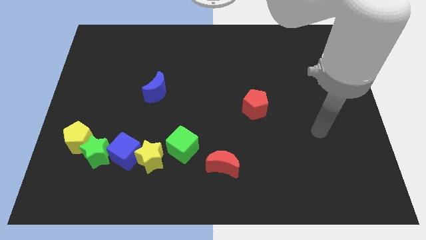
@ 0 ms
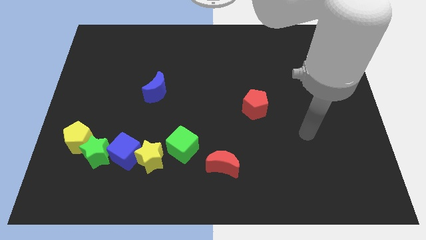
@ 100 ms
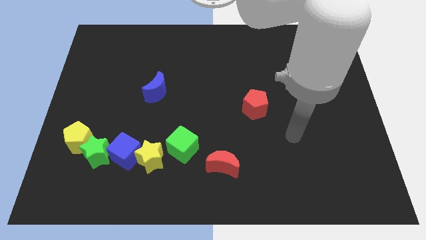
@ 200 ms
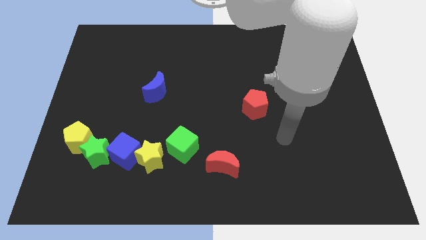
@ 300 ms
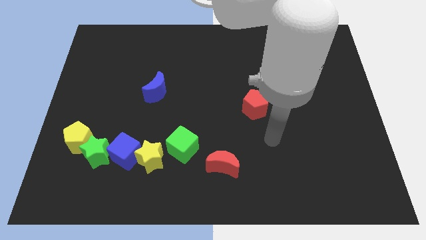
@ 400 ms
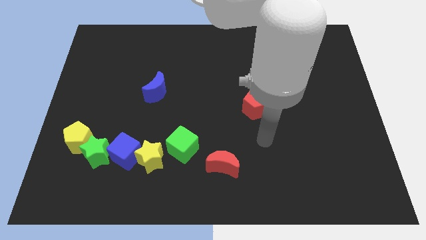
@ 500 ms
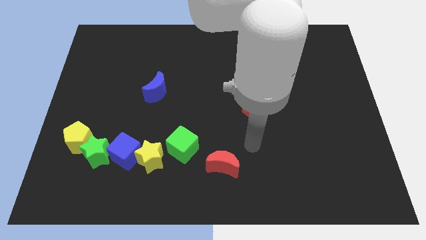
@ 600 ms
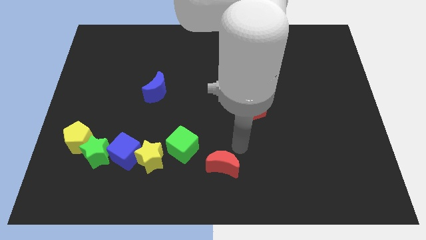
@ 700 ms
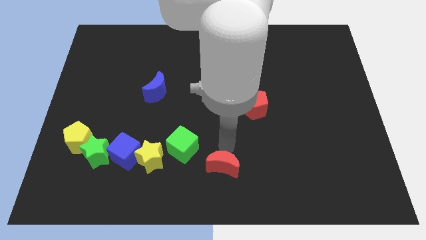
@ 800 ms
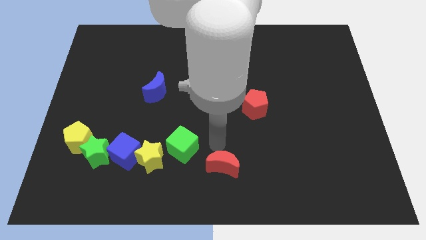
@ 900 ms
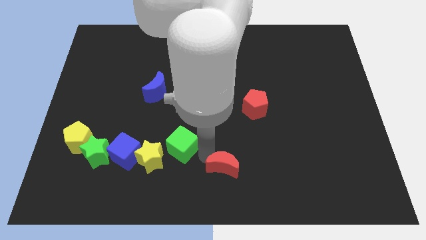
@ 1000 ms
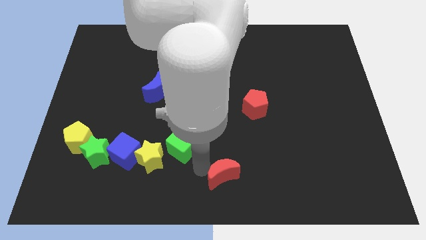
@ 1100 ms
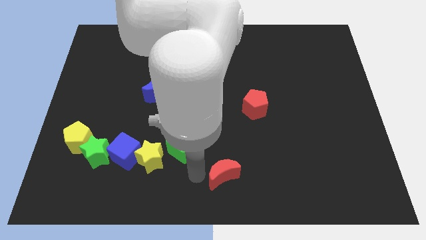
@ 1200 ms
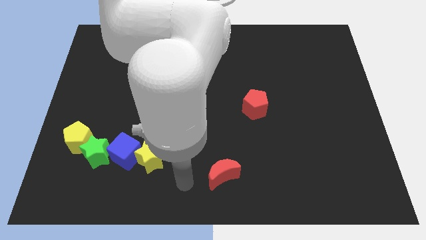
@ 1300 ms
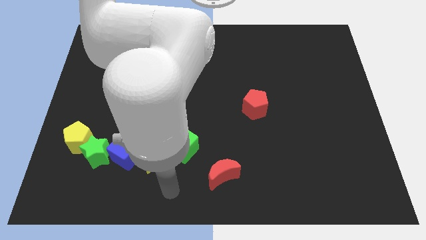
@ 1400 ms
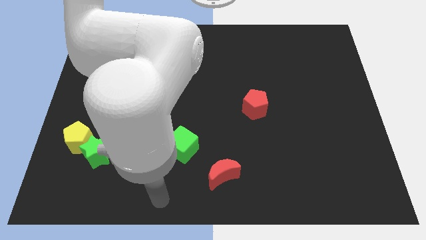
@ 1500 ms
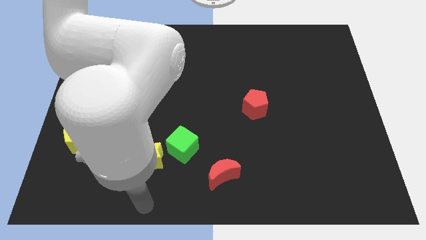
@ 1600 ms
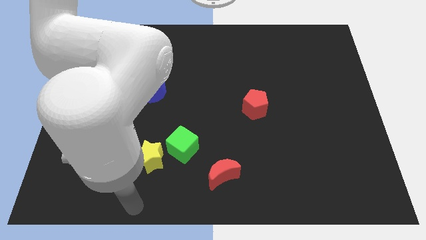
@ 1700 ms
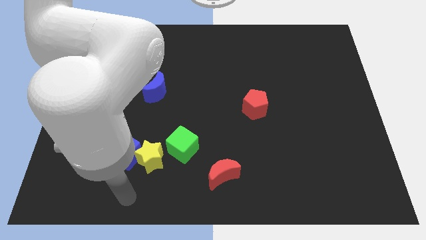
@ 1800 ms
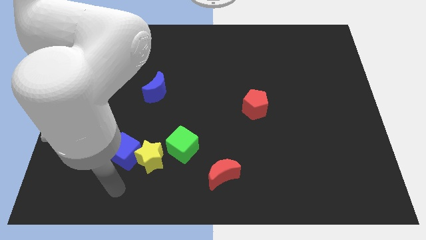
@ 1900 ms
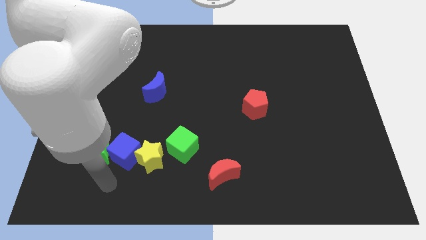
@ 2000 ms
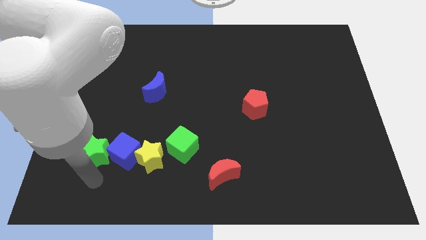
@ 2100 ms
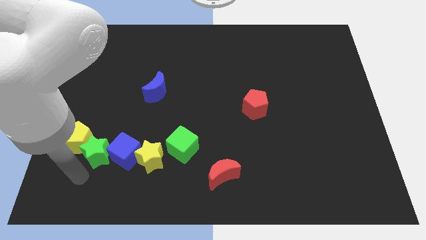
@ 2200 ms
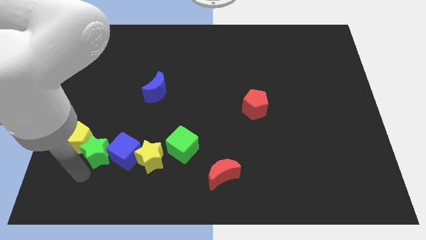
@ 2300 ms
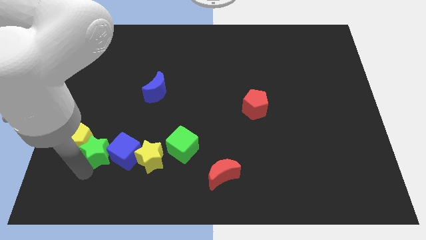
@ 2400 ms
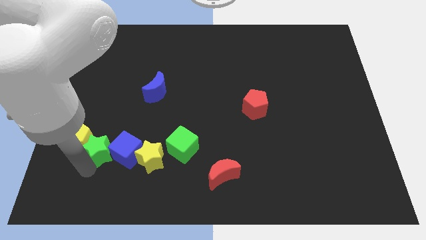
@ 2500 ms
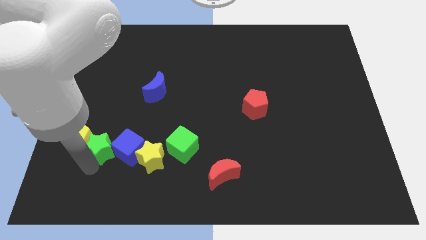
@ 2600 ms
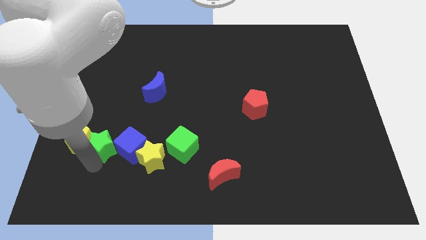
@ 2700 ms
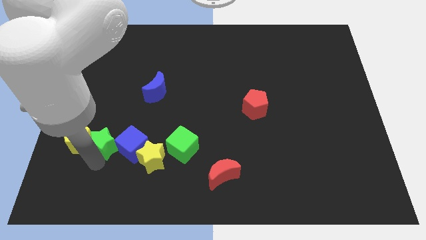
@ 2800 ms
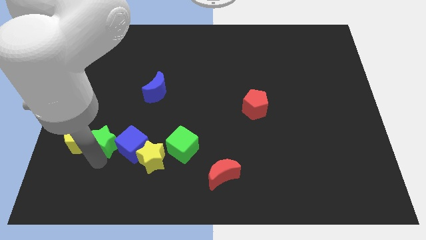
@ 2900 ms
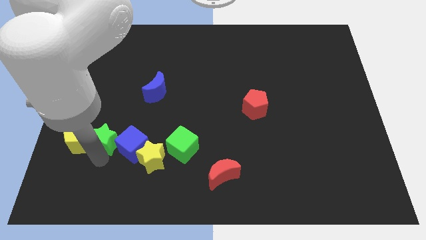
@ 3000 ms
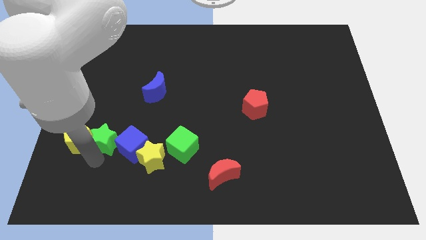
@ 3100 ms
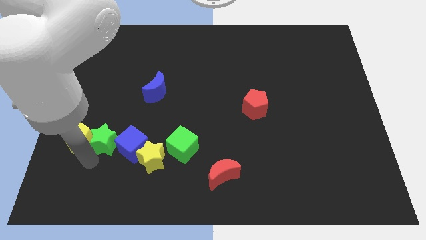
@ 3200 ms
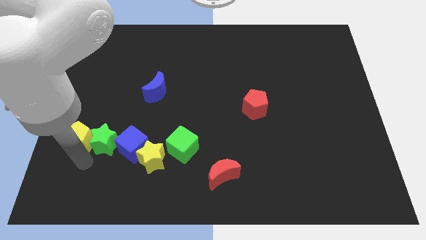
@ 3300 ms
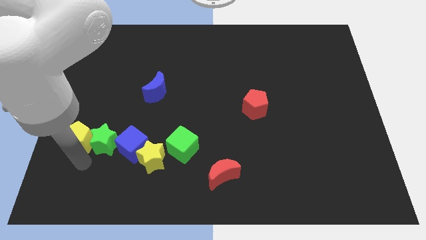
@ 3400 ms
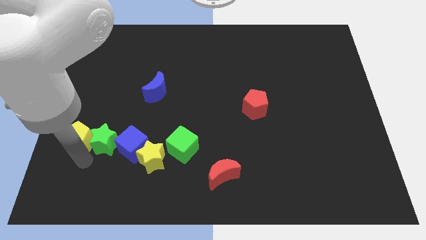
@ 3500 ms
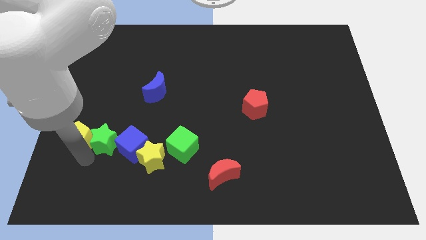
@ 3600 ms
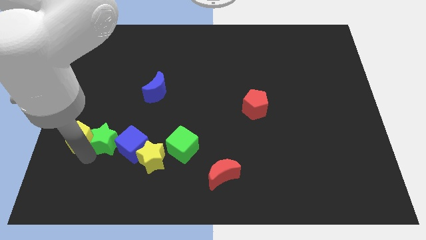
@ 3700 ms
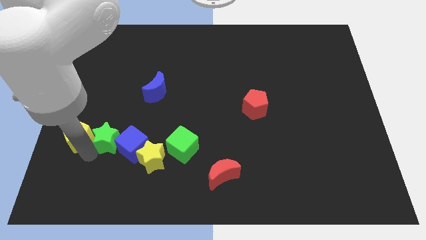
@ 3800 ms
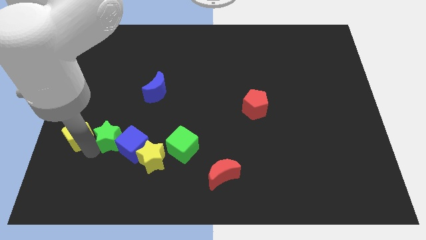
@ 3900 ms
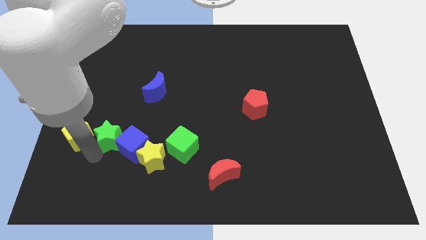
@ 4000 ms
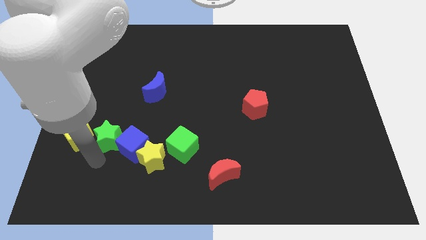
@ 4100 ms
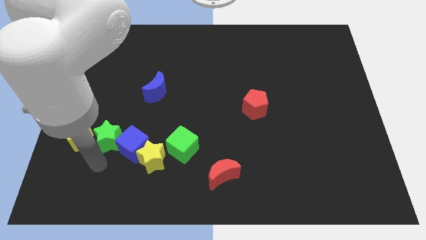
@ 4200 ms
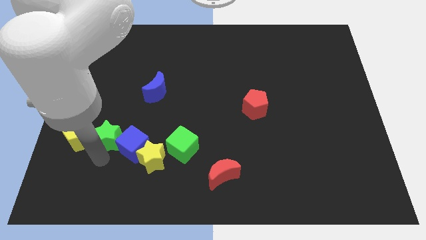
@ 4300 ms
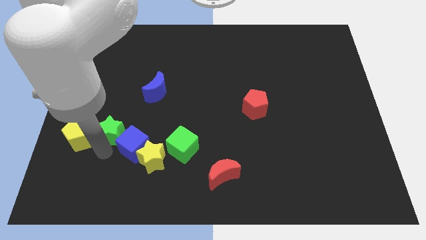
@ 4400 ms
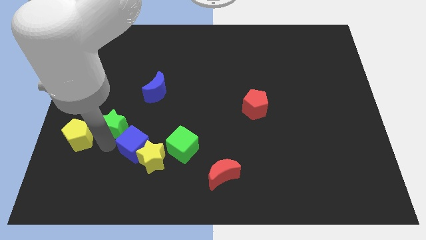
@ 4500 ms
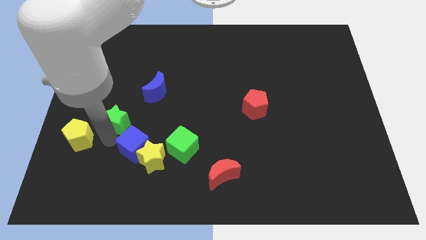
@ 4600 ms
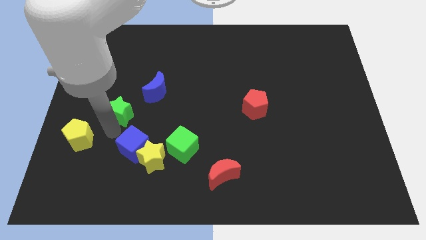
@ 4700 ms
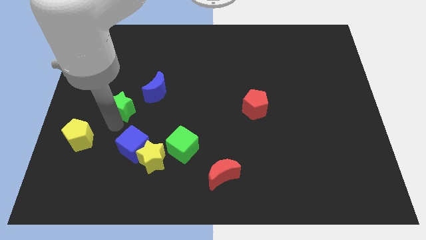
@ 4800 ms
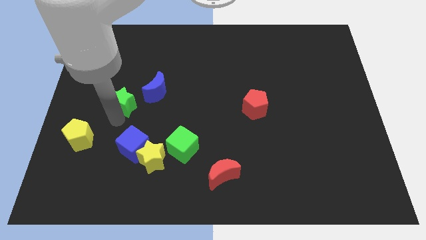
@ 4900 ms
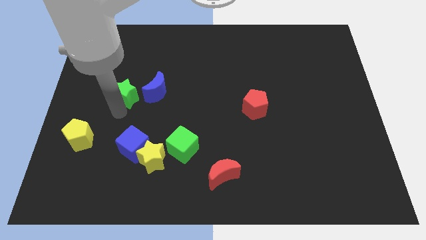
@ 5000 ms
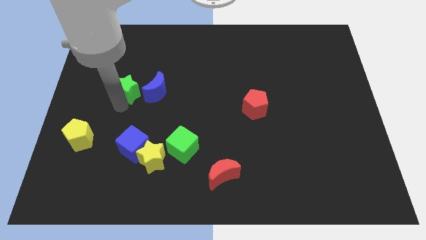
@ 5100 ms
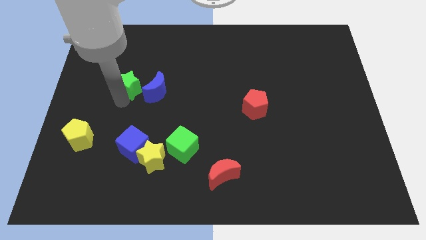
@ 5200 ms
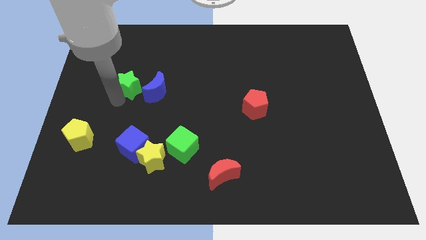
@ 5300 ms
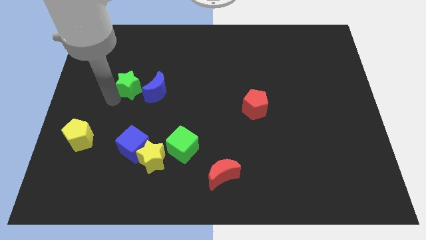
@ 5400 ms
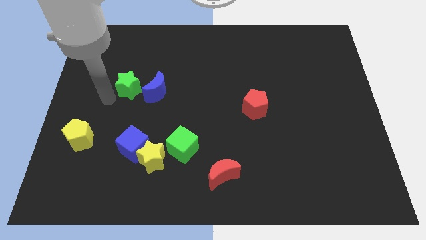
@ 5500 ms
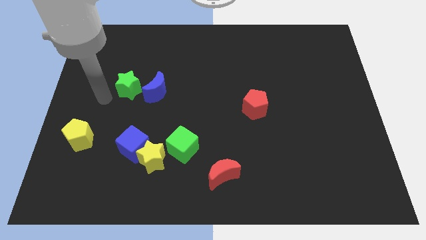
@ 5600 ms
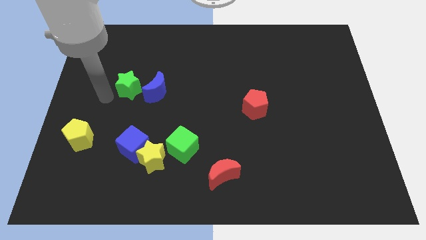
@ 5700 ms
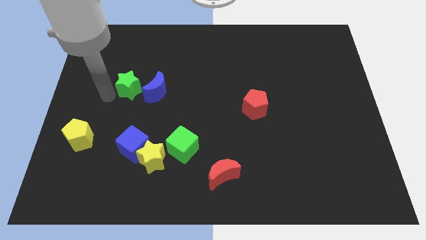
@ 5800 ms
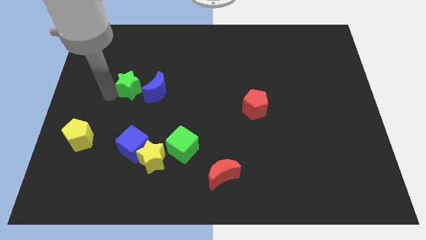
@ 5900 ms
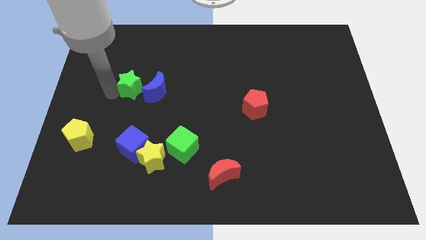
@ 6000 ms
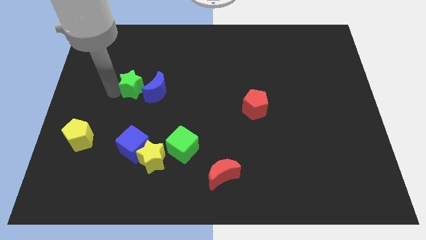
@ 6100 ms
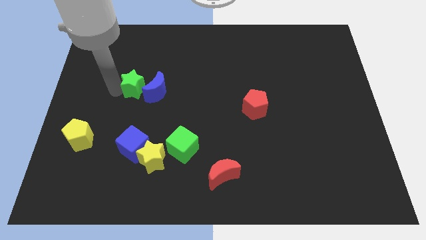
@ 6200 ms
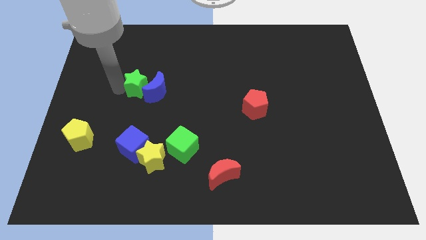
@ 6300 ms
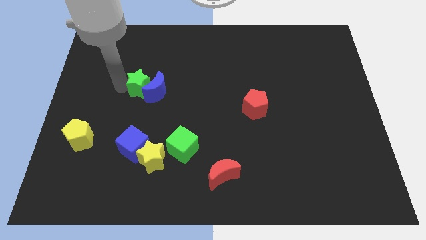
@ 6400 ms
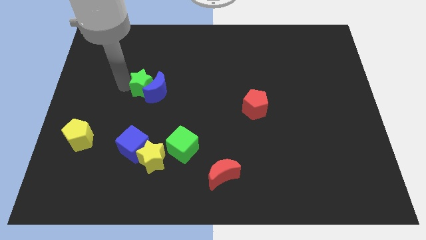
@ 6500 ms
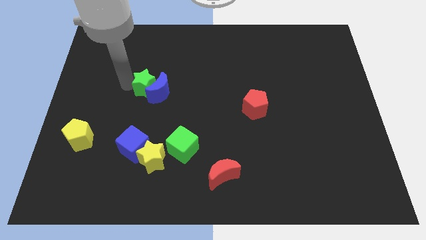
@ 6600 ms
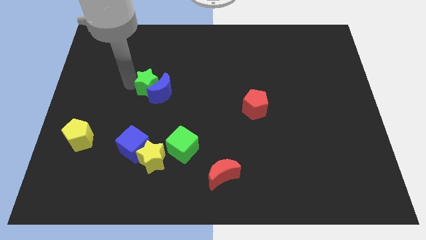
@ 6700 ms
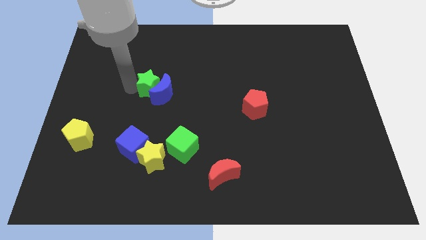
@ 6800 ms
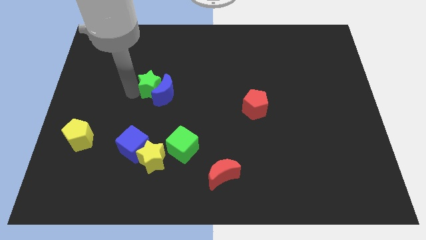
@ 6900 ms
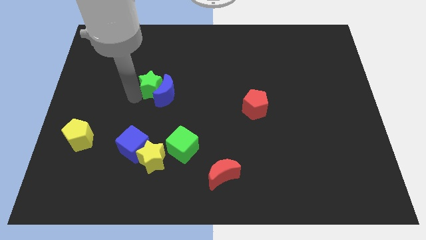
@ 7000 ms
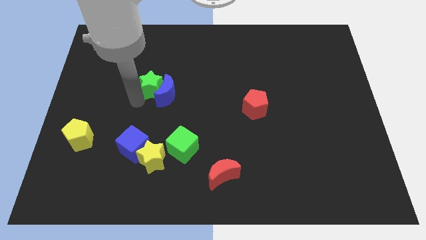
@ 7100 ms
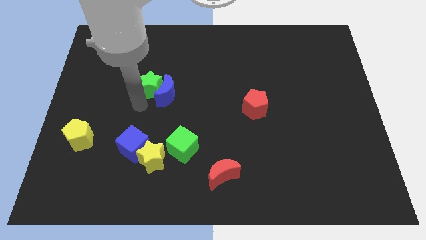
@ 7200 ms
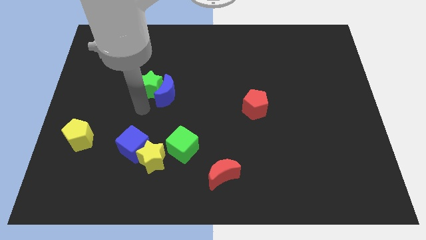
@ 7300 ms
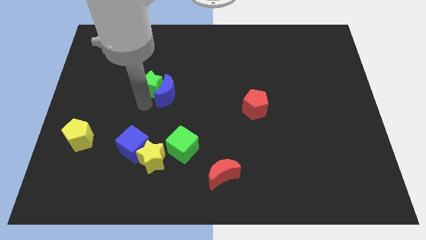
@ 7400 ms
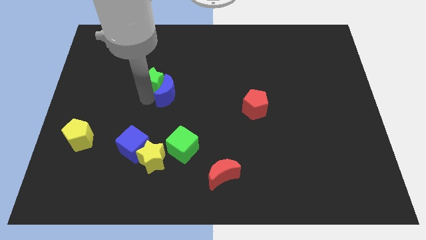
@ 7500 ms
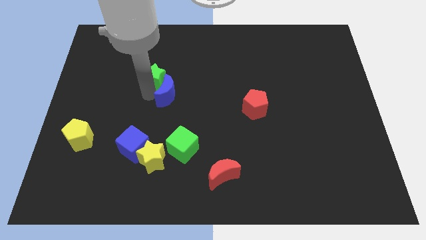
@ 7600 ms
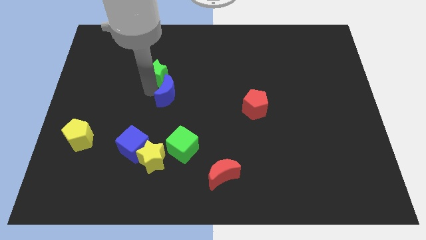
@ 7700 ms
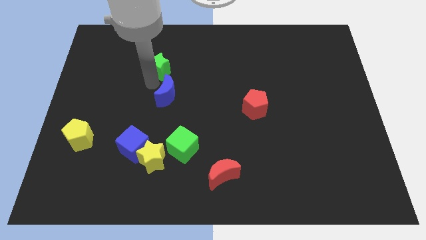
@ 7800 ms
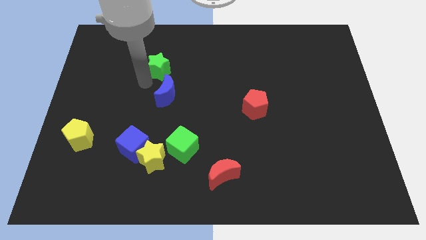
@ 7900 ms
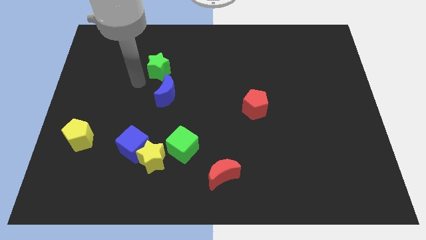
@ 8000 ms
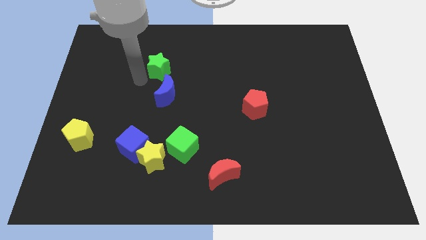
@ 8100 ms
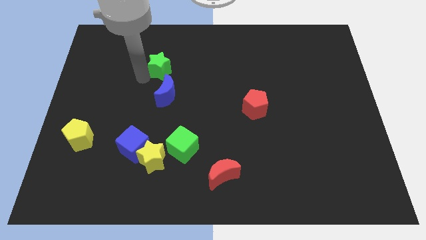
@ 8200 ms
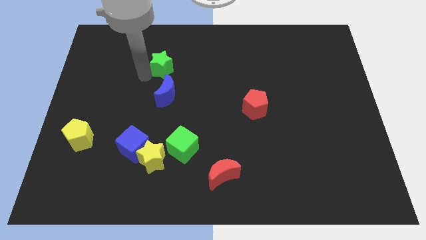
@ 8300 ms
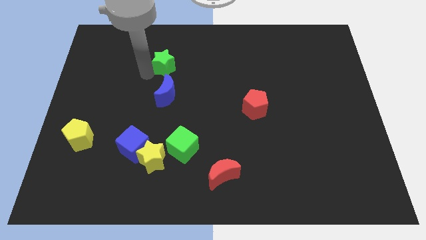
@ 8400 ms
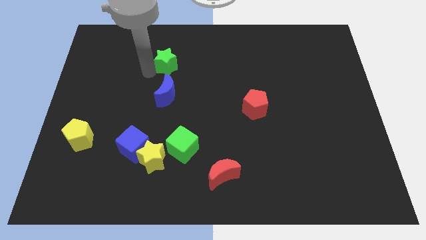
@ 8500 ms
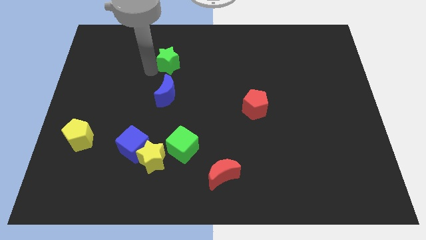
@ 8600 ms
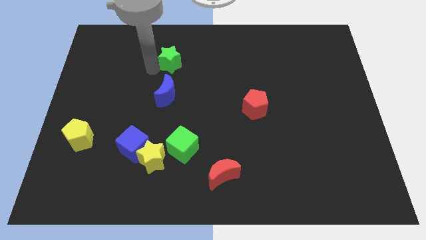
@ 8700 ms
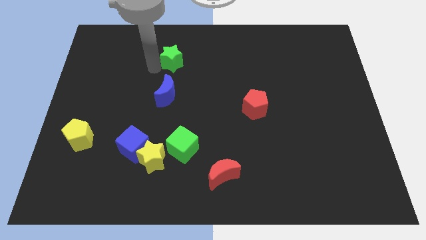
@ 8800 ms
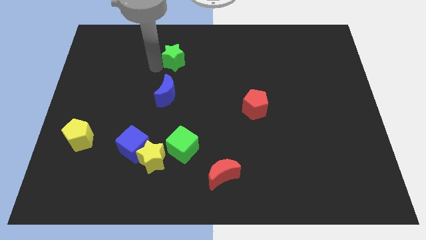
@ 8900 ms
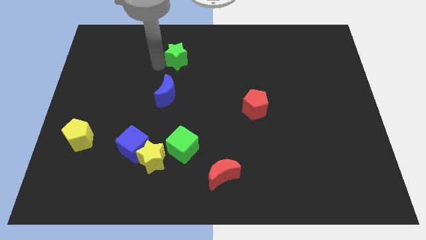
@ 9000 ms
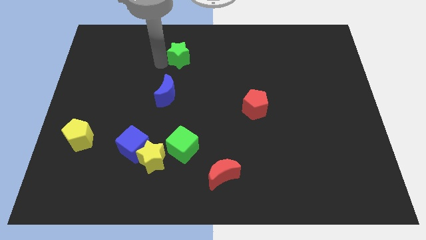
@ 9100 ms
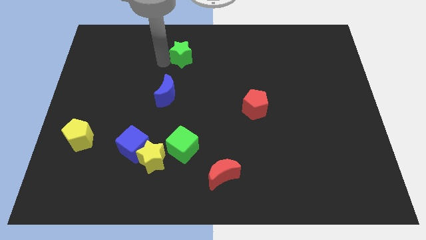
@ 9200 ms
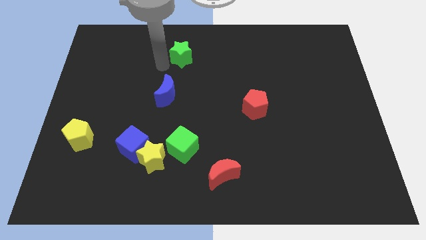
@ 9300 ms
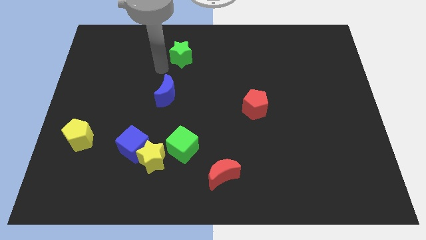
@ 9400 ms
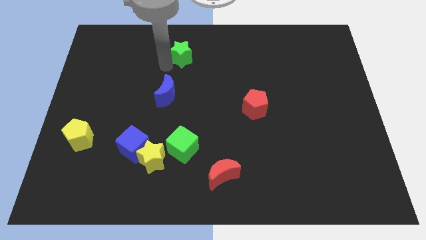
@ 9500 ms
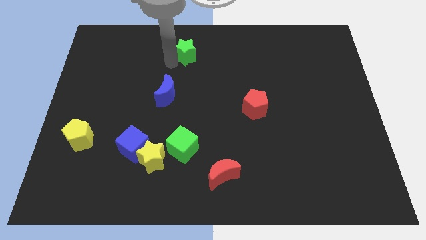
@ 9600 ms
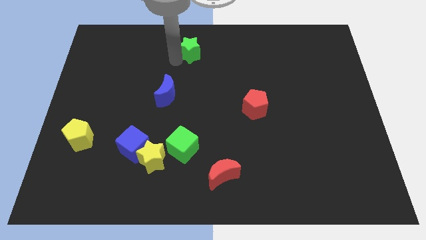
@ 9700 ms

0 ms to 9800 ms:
put the green star to the top
